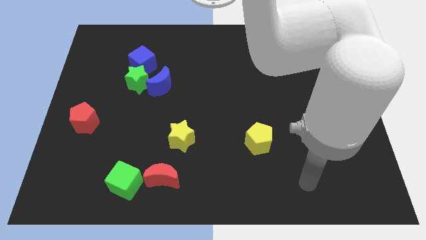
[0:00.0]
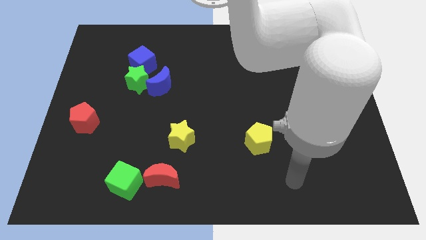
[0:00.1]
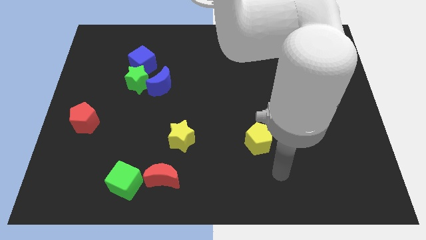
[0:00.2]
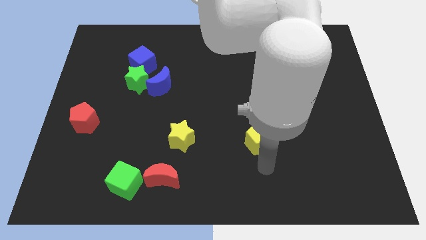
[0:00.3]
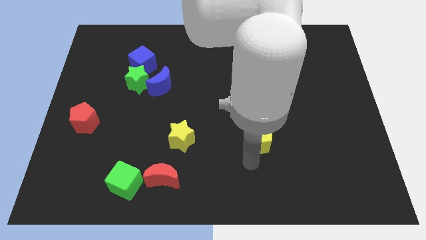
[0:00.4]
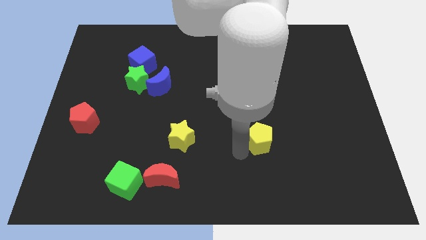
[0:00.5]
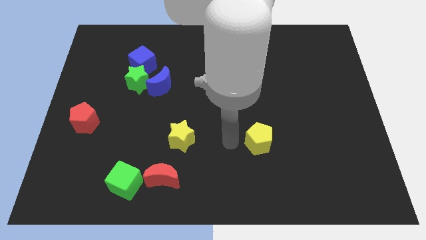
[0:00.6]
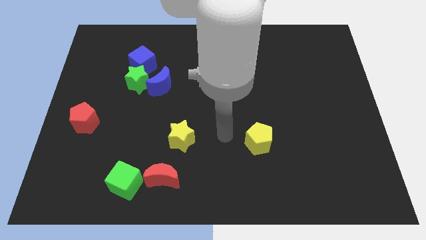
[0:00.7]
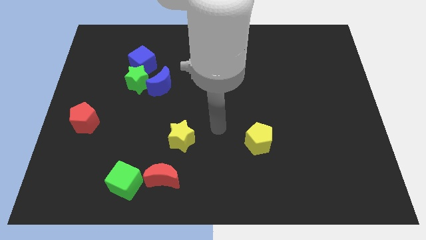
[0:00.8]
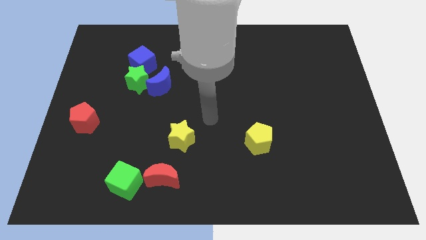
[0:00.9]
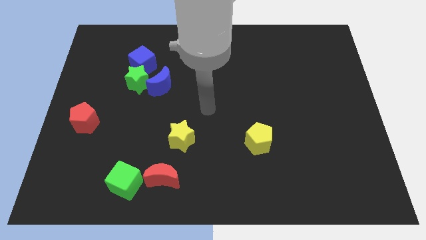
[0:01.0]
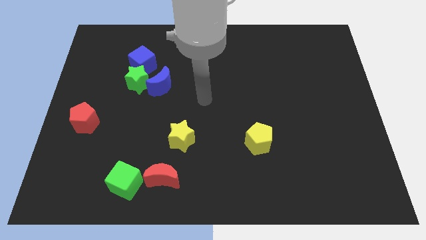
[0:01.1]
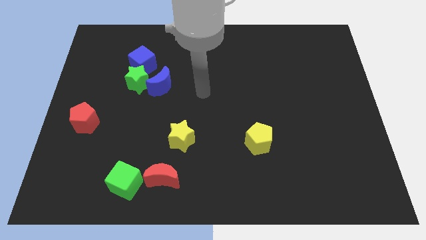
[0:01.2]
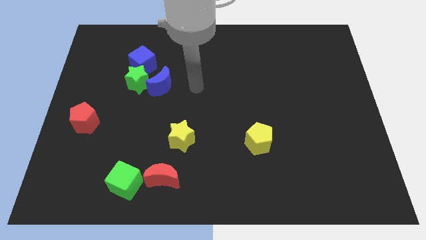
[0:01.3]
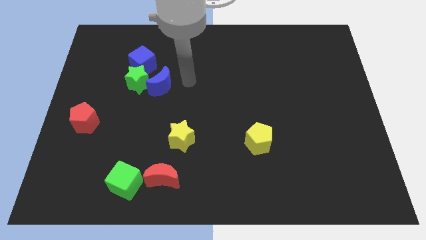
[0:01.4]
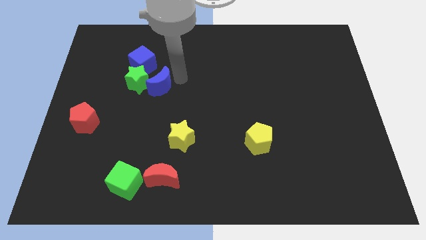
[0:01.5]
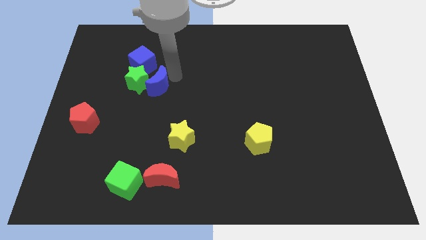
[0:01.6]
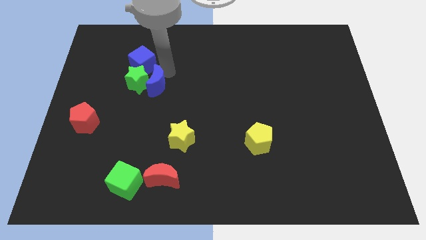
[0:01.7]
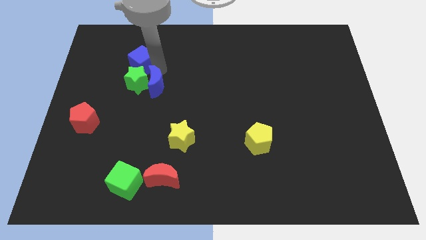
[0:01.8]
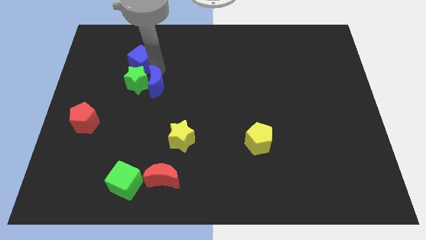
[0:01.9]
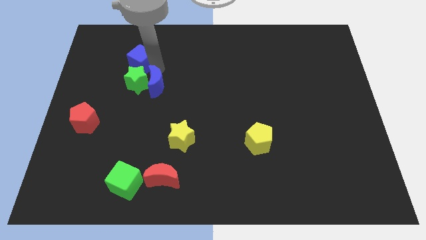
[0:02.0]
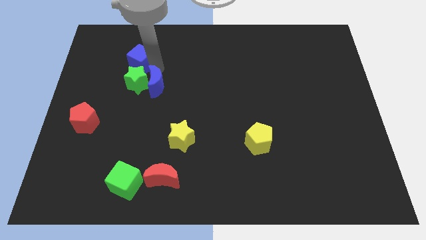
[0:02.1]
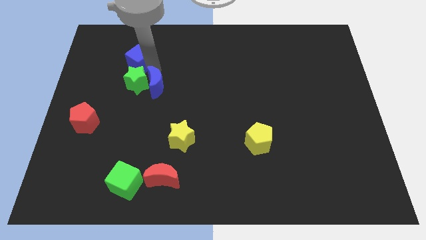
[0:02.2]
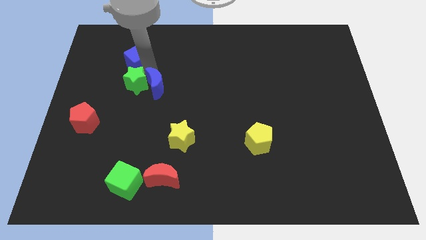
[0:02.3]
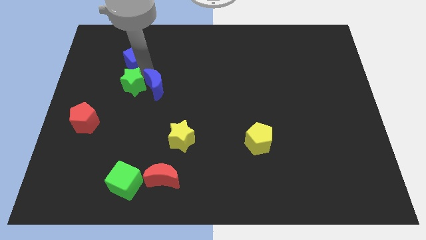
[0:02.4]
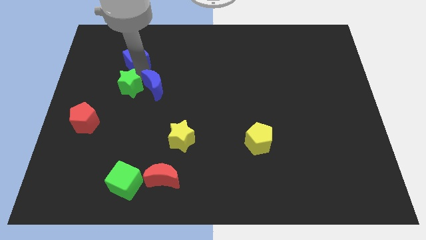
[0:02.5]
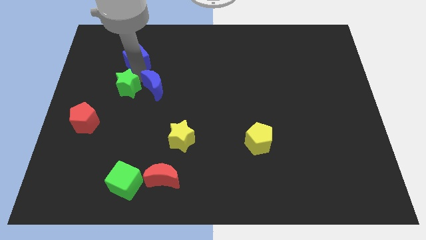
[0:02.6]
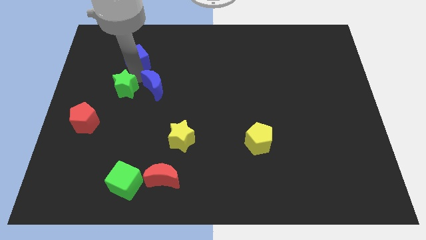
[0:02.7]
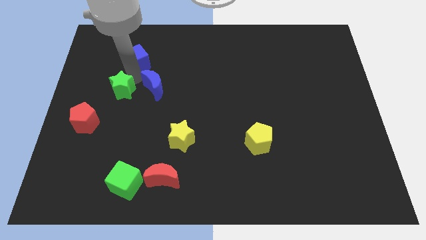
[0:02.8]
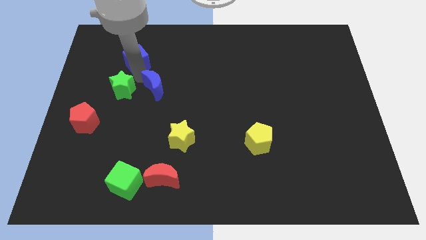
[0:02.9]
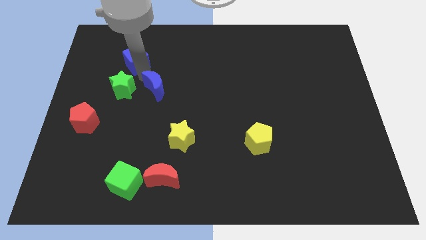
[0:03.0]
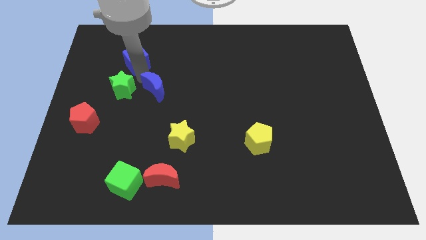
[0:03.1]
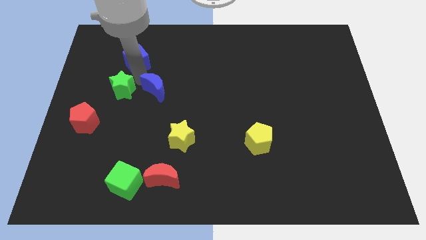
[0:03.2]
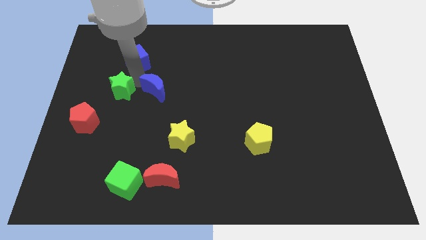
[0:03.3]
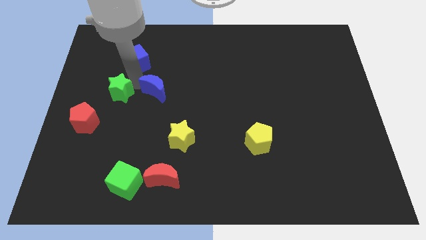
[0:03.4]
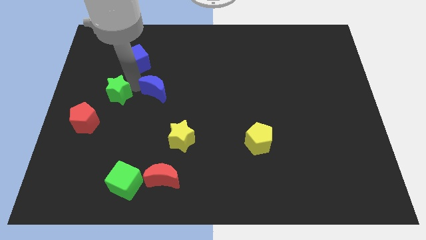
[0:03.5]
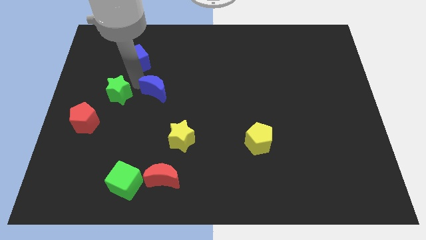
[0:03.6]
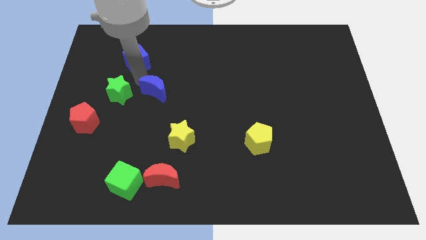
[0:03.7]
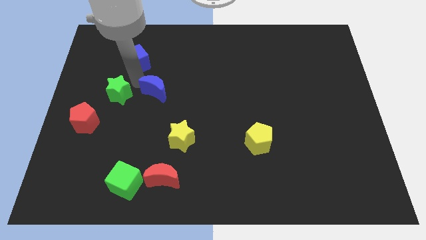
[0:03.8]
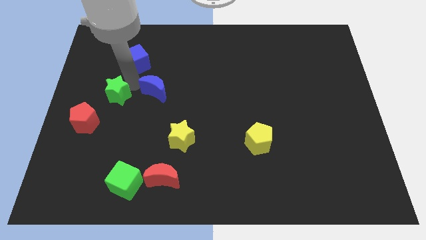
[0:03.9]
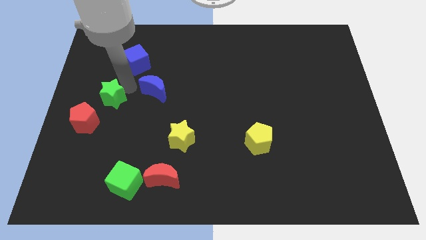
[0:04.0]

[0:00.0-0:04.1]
move the green star away from the blue moon and blue cube

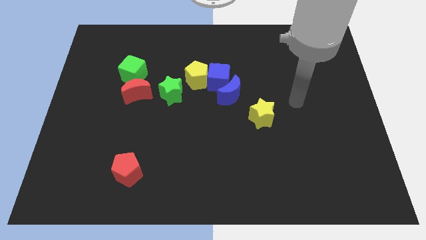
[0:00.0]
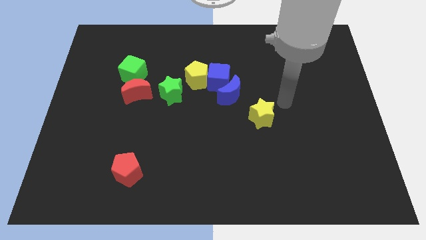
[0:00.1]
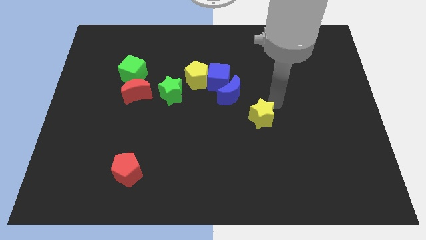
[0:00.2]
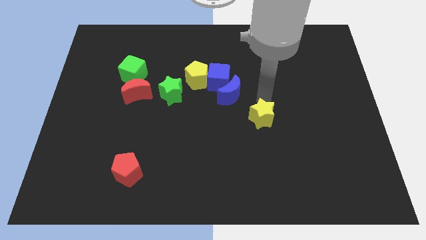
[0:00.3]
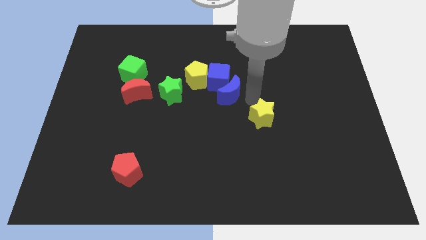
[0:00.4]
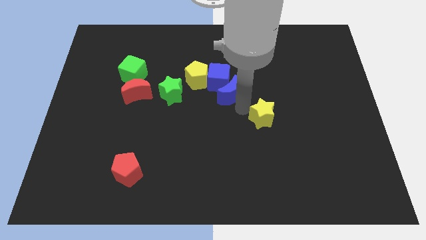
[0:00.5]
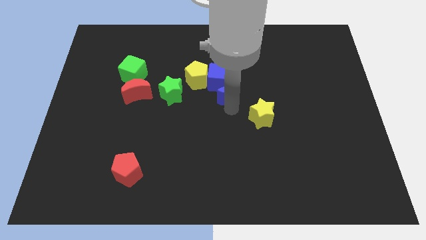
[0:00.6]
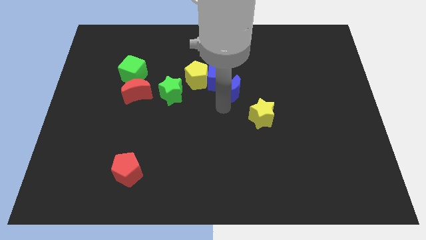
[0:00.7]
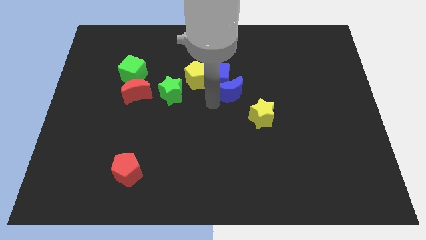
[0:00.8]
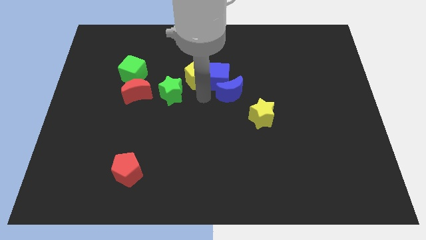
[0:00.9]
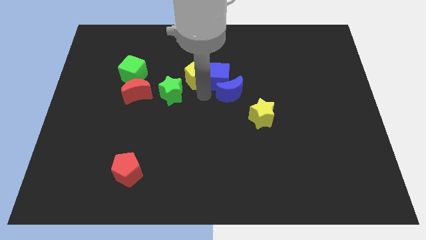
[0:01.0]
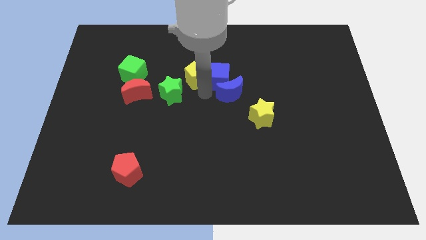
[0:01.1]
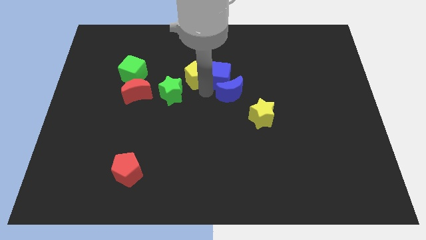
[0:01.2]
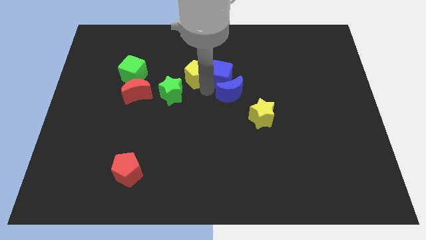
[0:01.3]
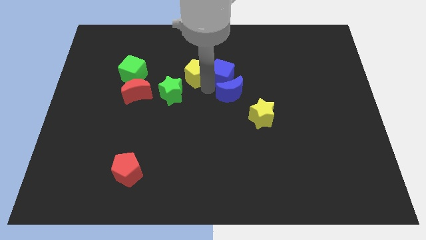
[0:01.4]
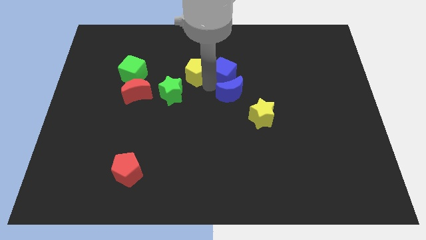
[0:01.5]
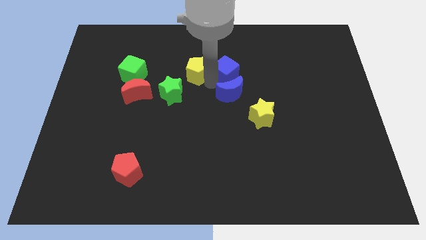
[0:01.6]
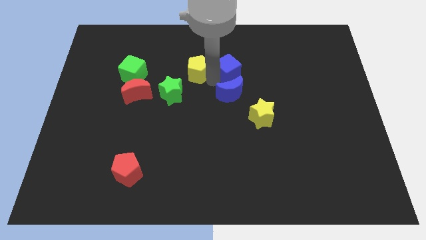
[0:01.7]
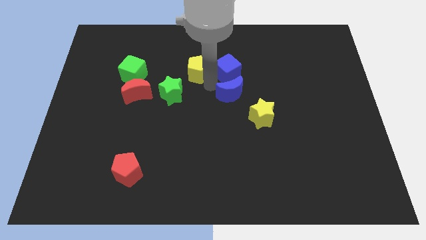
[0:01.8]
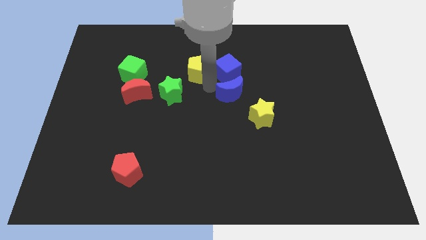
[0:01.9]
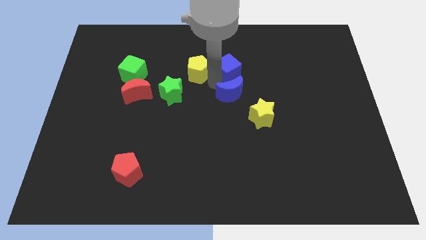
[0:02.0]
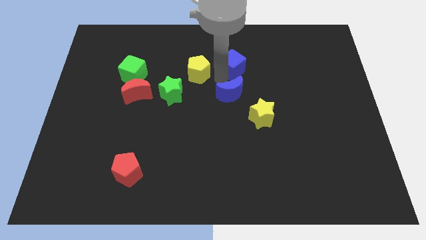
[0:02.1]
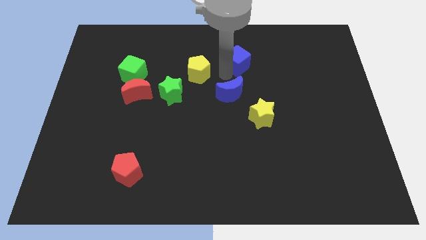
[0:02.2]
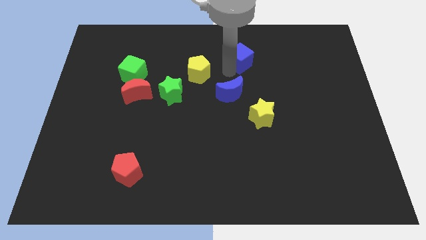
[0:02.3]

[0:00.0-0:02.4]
separate the blue cube from the yellow pentagon and blue moon

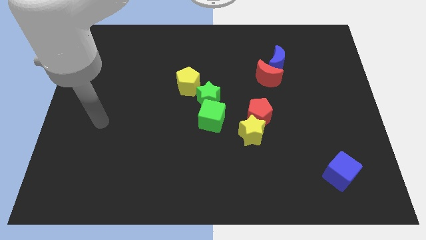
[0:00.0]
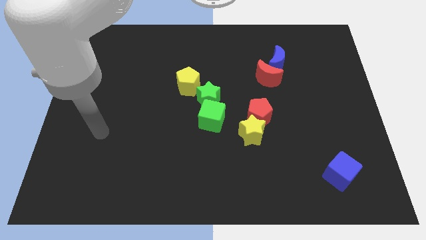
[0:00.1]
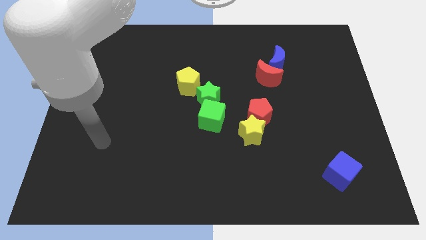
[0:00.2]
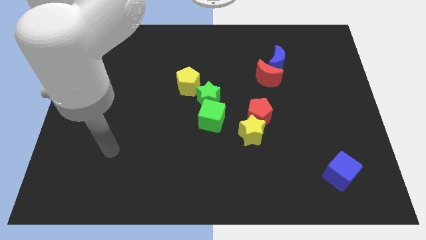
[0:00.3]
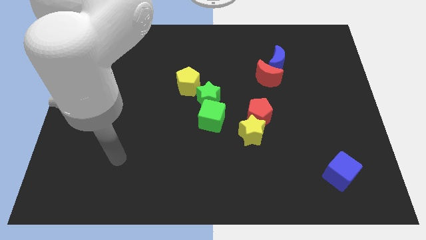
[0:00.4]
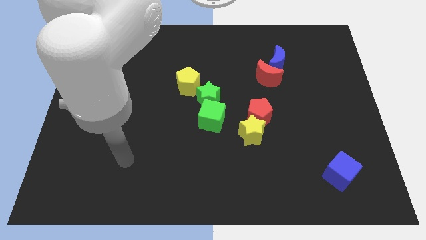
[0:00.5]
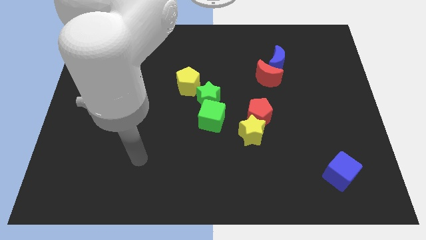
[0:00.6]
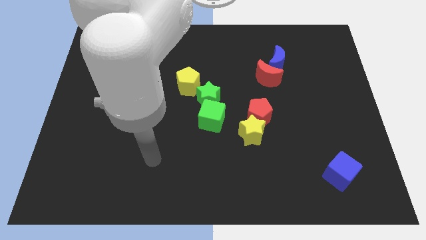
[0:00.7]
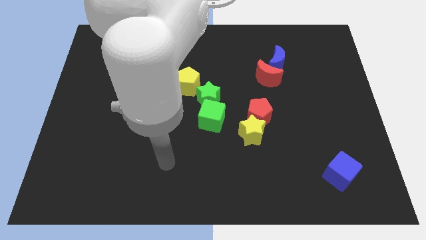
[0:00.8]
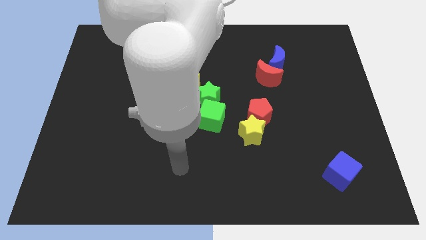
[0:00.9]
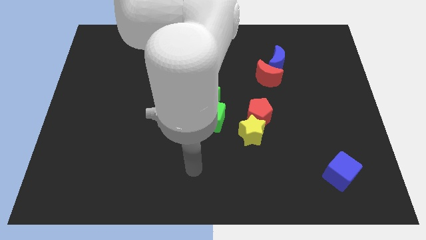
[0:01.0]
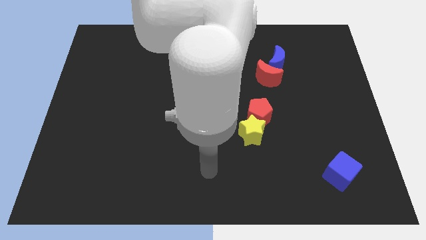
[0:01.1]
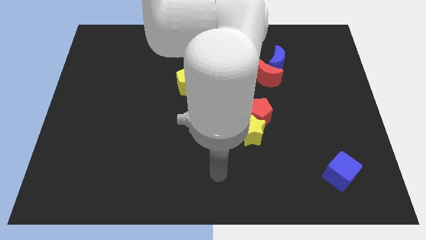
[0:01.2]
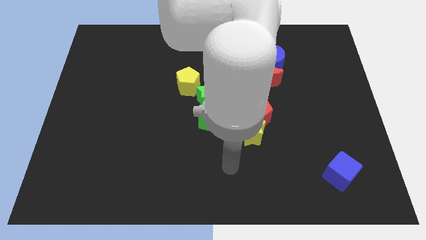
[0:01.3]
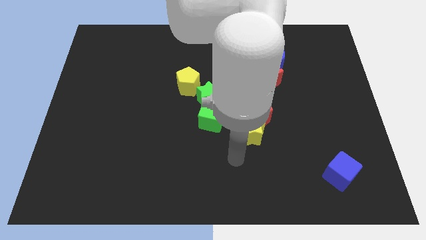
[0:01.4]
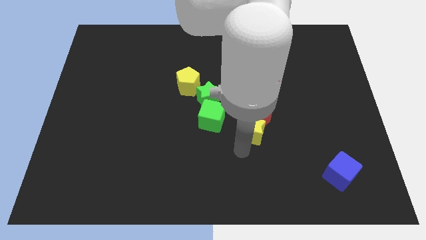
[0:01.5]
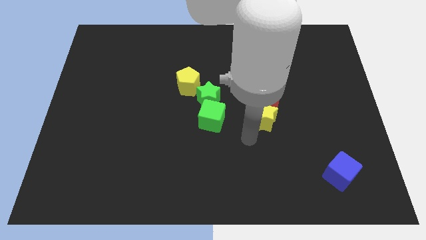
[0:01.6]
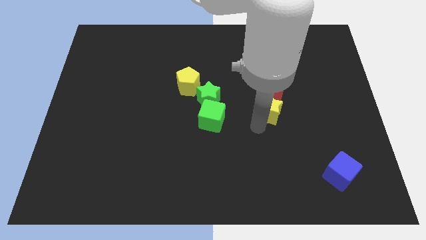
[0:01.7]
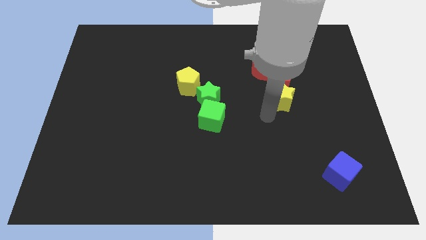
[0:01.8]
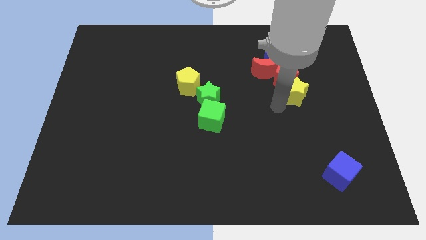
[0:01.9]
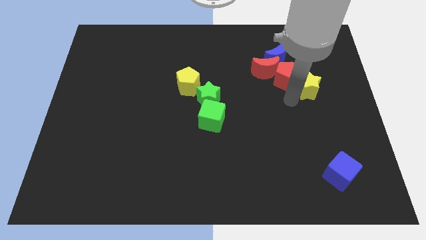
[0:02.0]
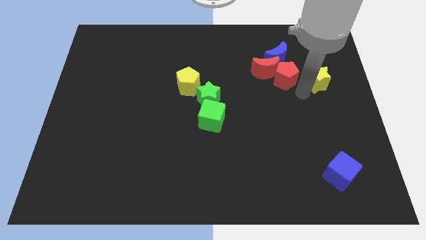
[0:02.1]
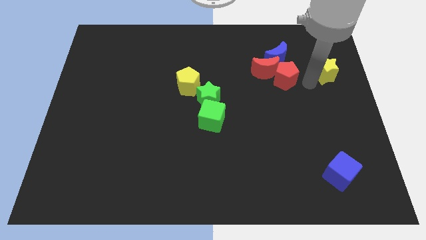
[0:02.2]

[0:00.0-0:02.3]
move the red pentagon away from the yellow star

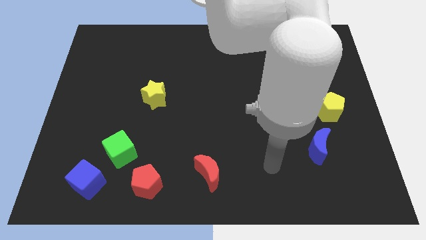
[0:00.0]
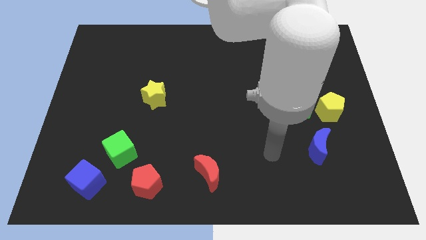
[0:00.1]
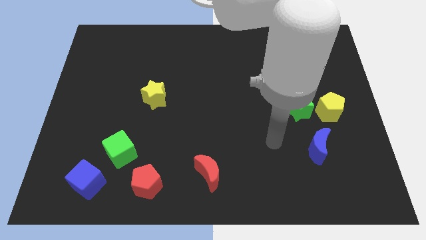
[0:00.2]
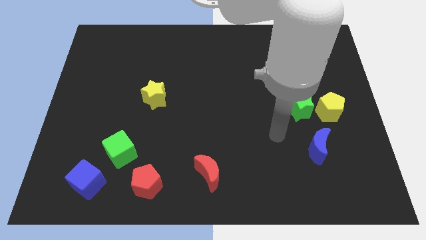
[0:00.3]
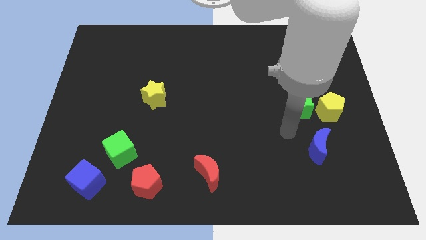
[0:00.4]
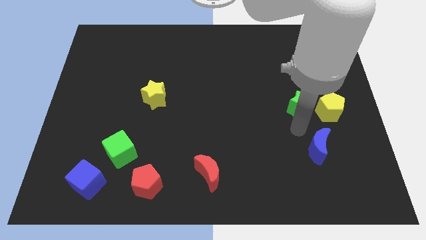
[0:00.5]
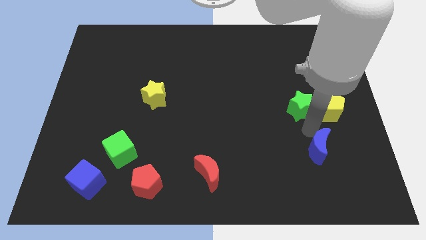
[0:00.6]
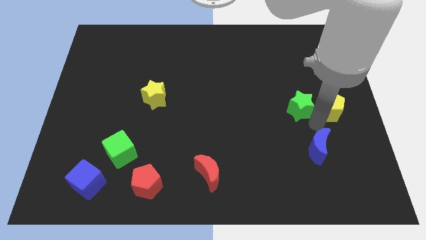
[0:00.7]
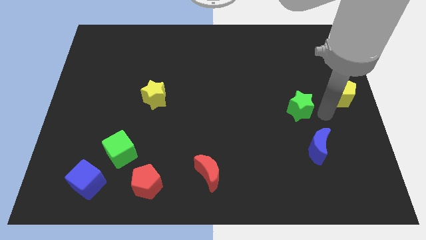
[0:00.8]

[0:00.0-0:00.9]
pull the green star apart from the yellow pentagon
